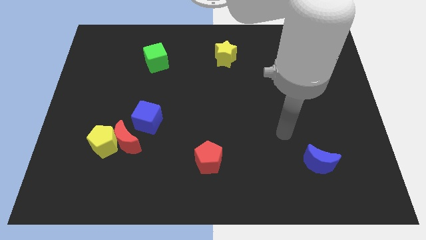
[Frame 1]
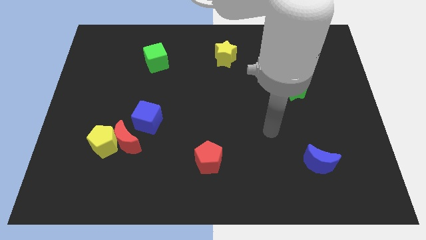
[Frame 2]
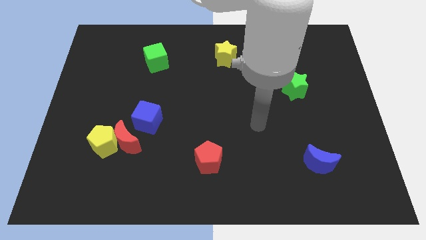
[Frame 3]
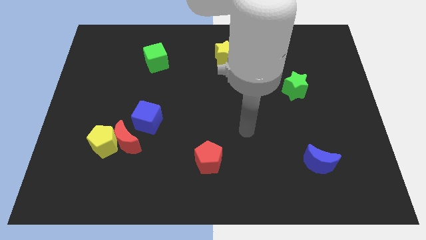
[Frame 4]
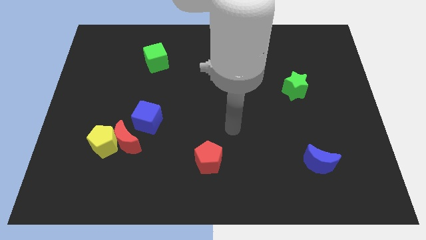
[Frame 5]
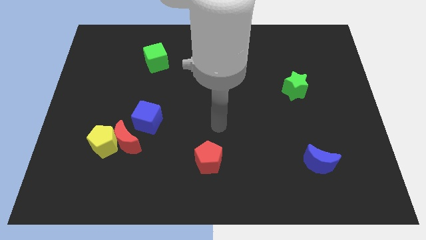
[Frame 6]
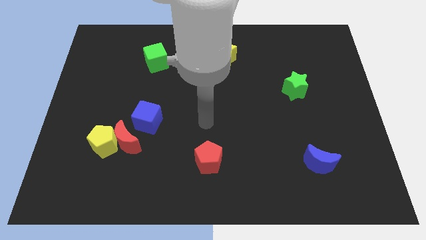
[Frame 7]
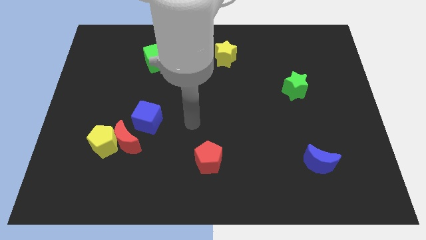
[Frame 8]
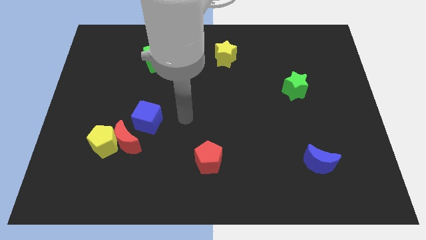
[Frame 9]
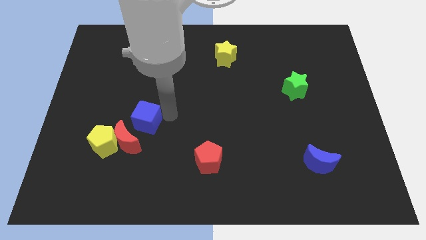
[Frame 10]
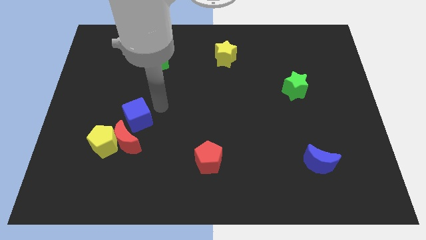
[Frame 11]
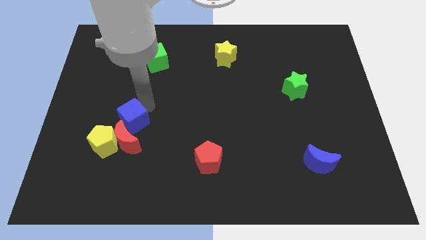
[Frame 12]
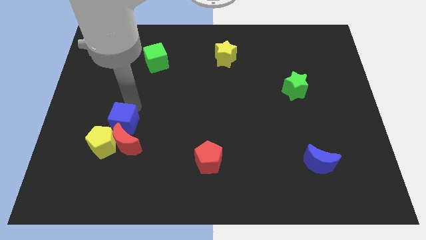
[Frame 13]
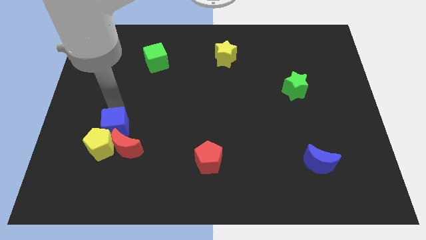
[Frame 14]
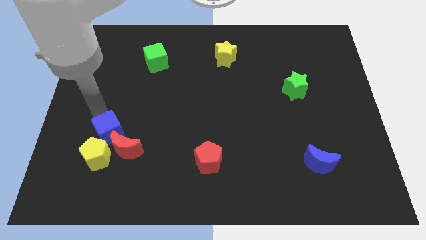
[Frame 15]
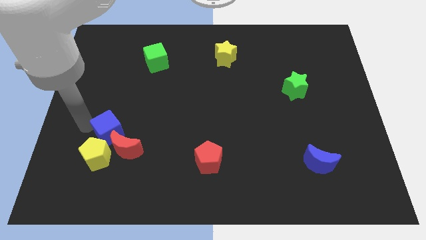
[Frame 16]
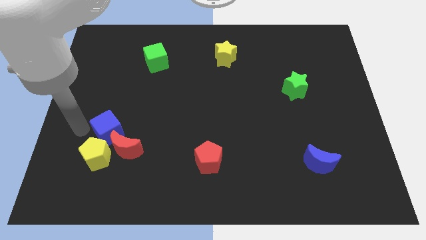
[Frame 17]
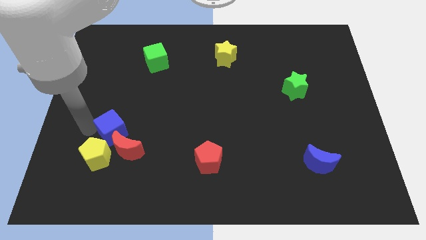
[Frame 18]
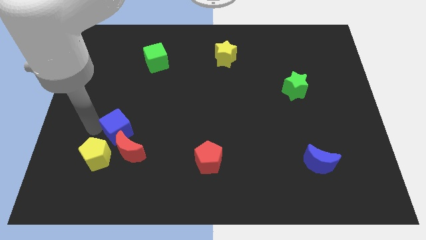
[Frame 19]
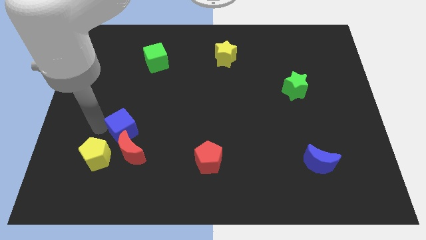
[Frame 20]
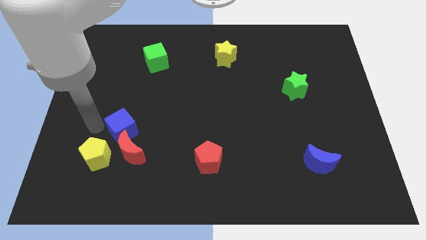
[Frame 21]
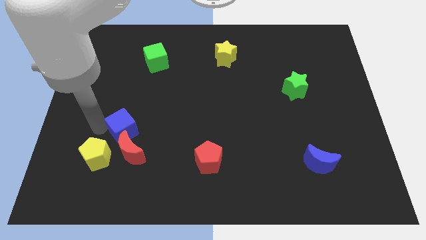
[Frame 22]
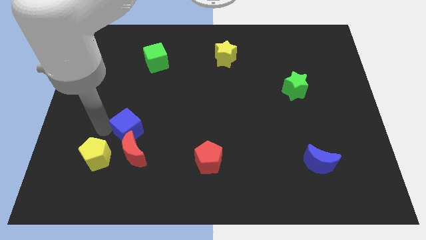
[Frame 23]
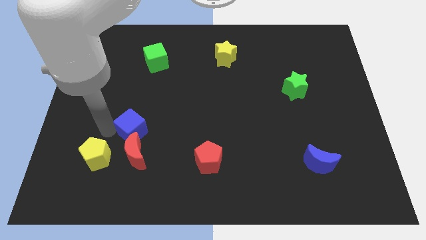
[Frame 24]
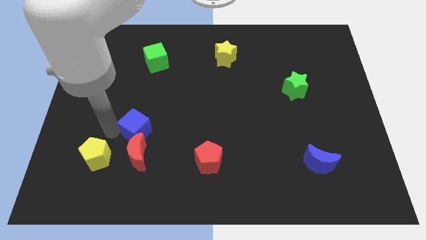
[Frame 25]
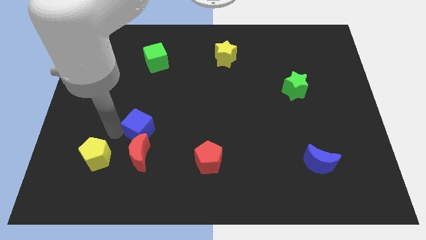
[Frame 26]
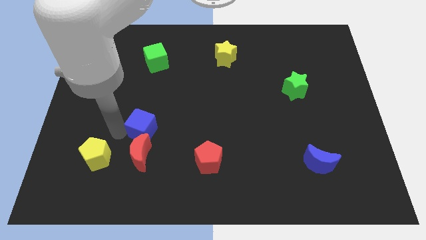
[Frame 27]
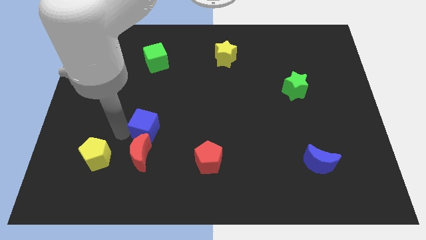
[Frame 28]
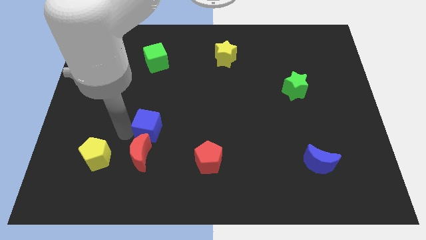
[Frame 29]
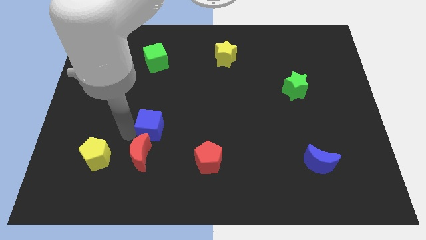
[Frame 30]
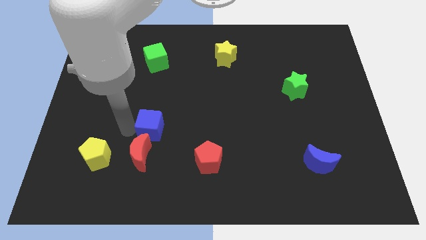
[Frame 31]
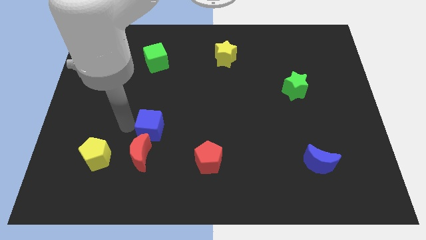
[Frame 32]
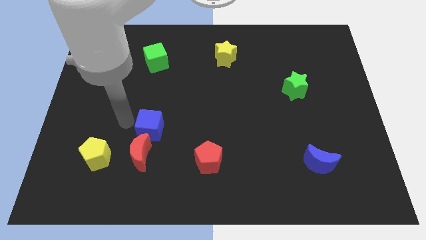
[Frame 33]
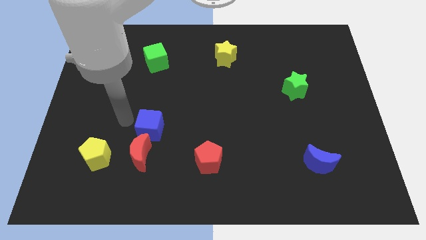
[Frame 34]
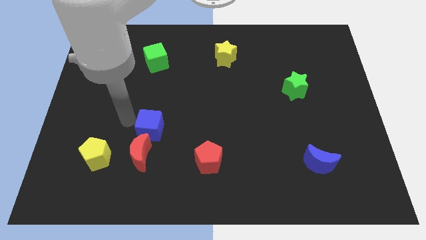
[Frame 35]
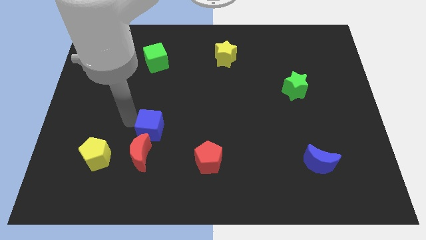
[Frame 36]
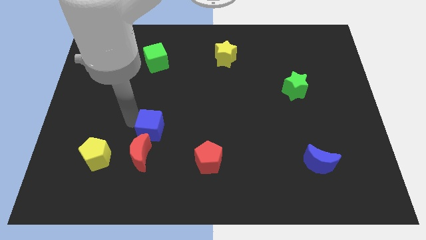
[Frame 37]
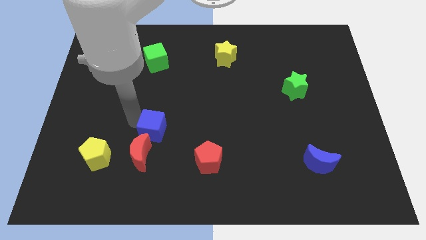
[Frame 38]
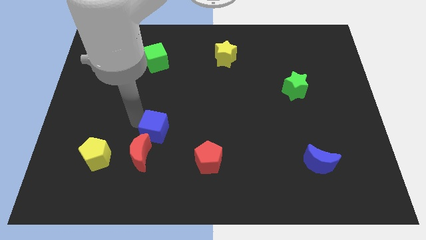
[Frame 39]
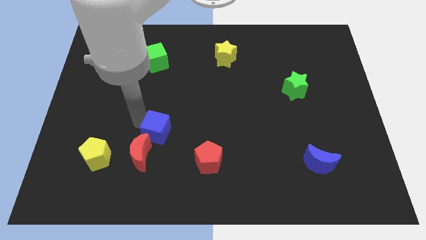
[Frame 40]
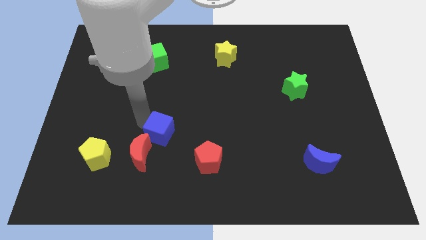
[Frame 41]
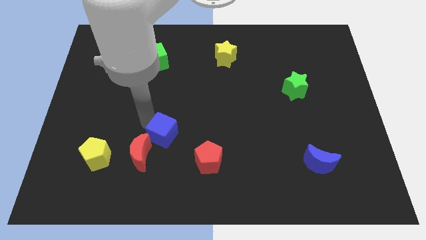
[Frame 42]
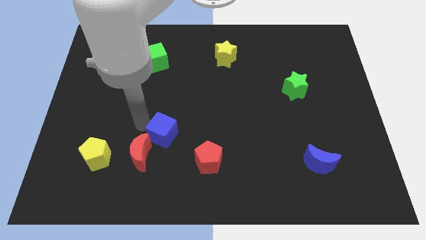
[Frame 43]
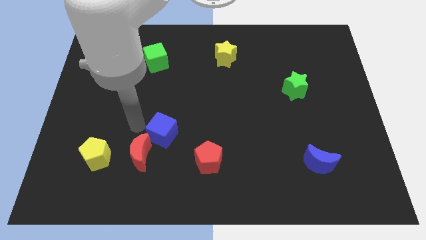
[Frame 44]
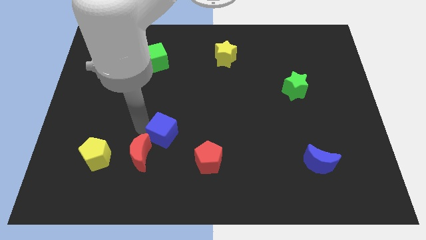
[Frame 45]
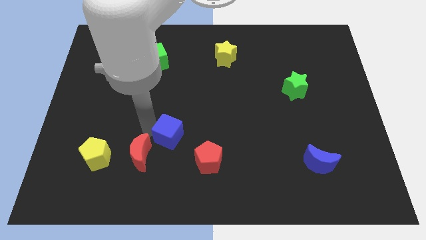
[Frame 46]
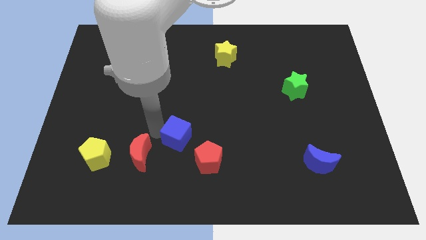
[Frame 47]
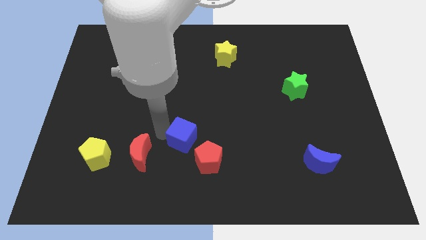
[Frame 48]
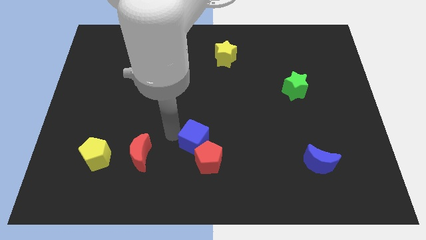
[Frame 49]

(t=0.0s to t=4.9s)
push the blue cube towards the red pentagon

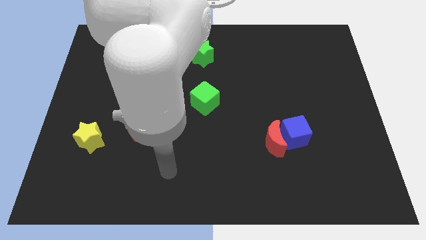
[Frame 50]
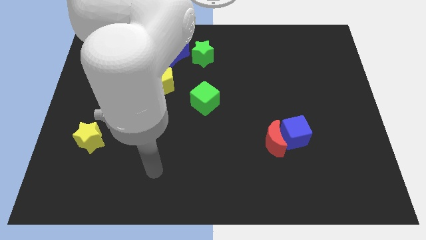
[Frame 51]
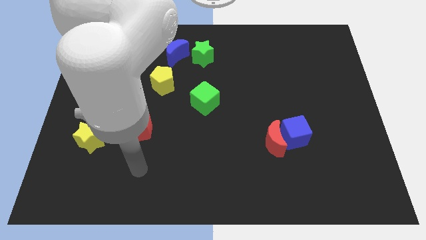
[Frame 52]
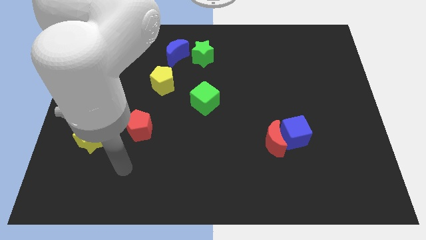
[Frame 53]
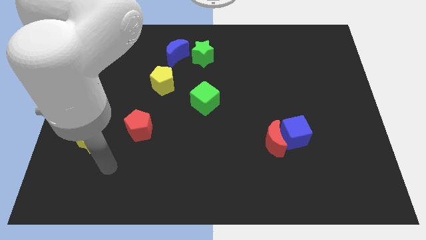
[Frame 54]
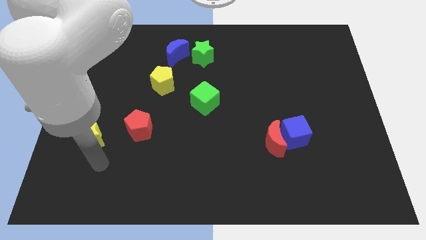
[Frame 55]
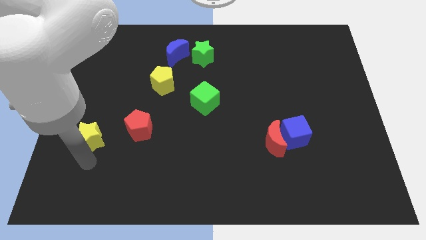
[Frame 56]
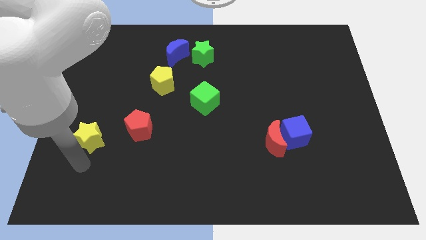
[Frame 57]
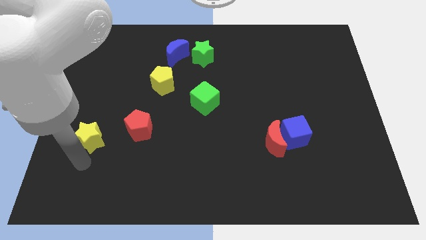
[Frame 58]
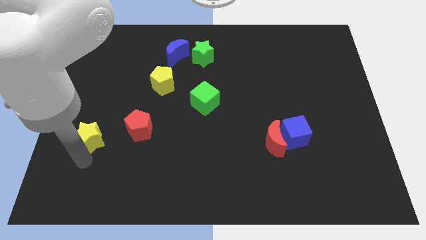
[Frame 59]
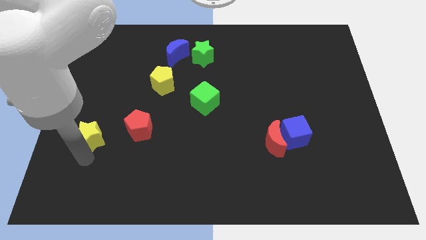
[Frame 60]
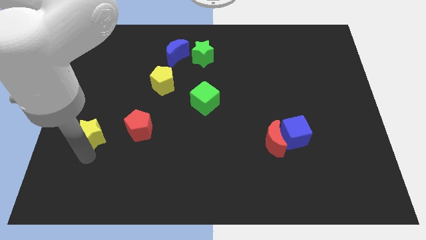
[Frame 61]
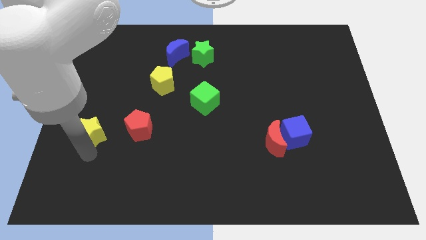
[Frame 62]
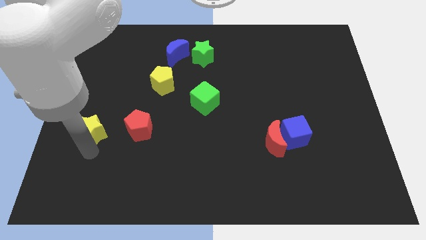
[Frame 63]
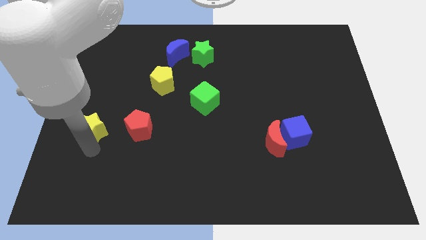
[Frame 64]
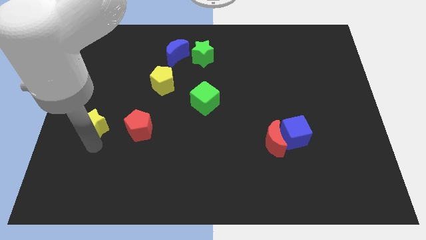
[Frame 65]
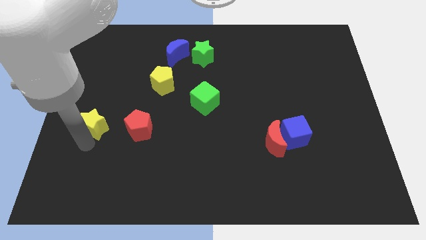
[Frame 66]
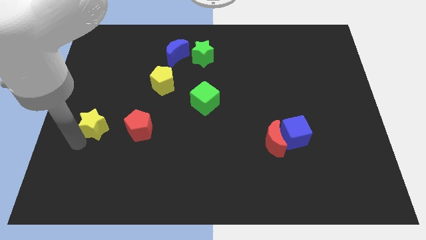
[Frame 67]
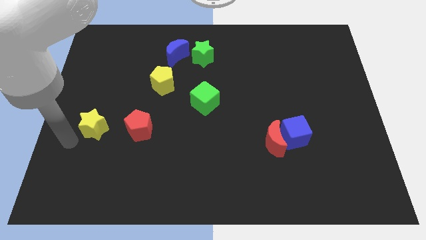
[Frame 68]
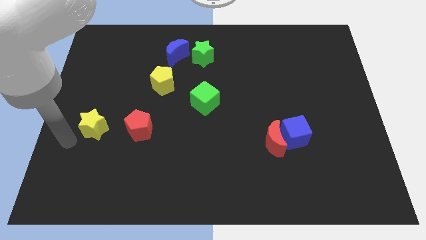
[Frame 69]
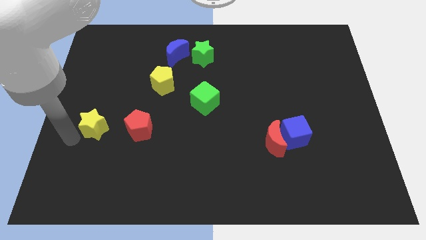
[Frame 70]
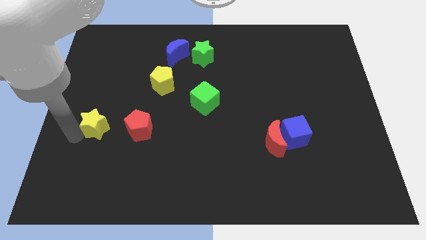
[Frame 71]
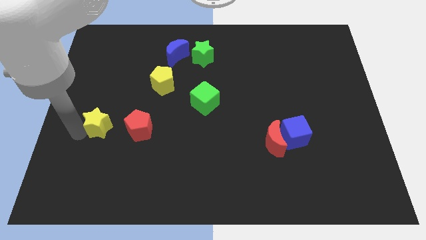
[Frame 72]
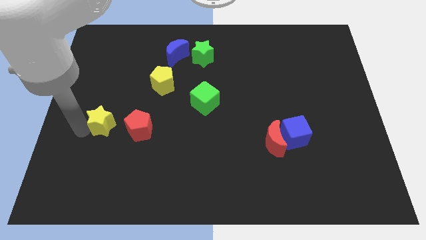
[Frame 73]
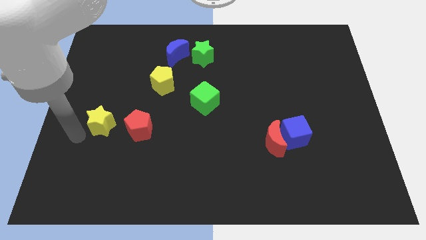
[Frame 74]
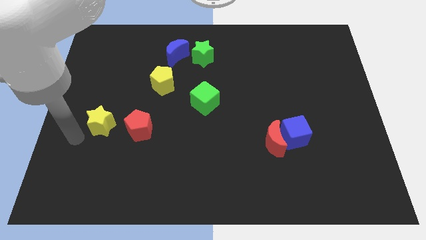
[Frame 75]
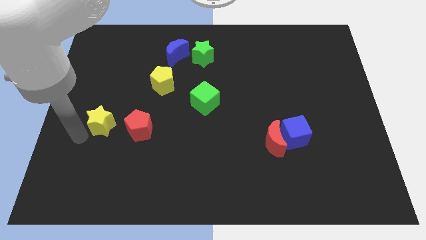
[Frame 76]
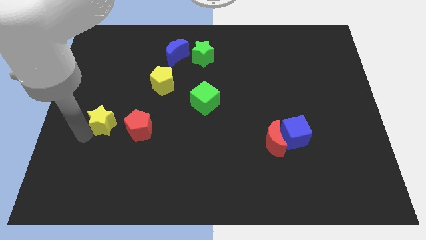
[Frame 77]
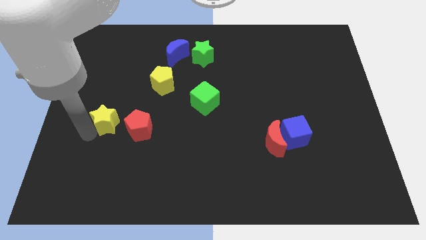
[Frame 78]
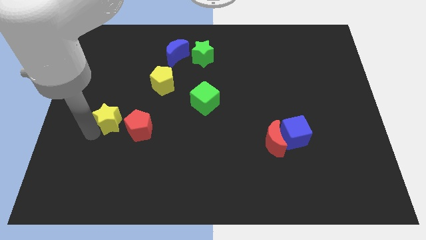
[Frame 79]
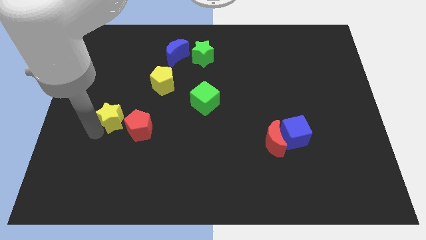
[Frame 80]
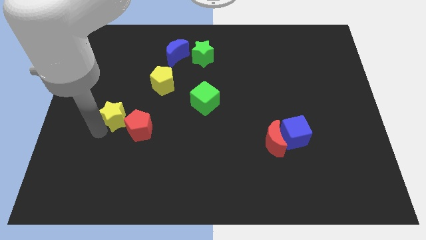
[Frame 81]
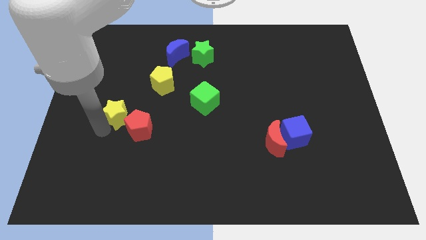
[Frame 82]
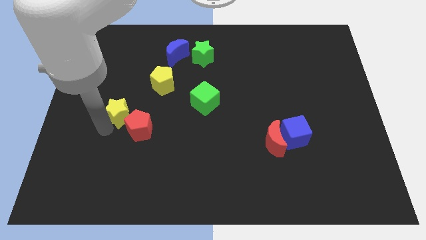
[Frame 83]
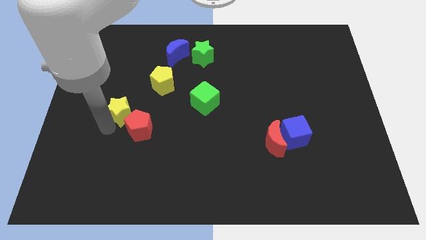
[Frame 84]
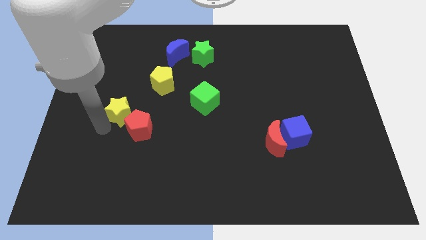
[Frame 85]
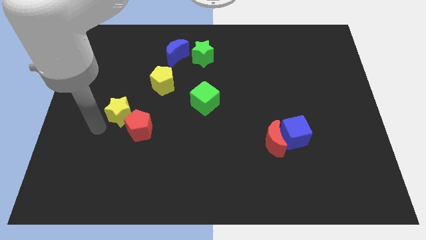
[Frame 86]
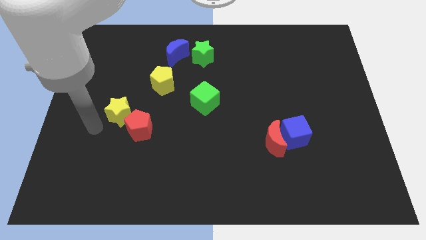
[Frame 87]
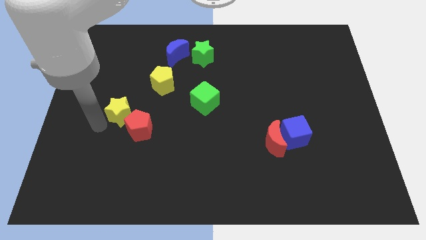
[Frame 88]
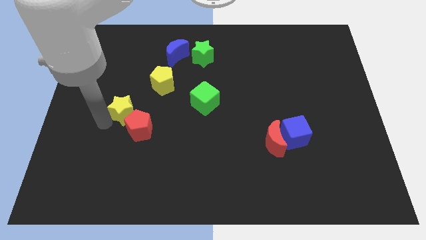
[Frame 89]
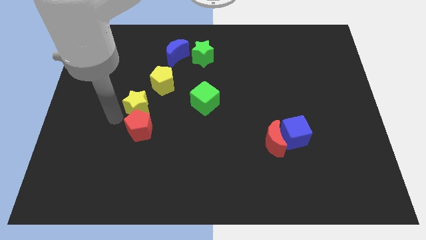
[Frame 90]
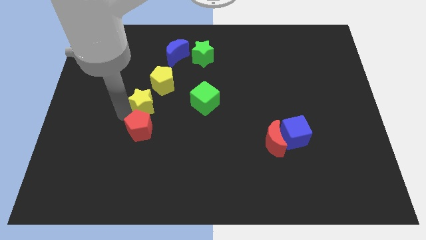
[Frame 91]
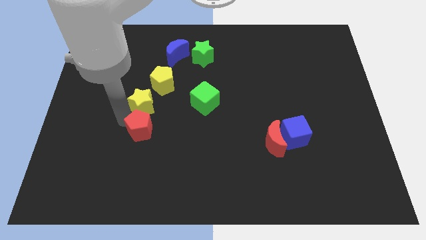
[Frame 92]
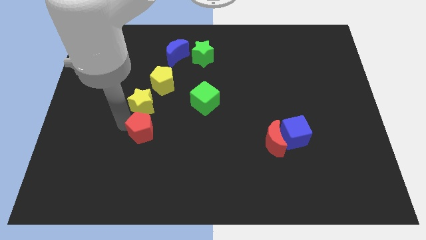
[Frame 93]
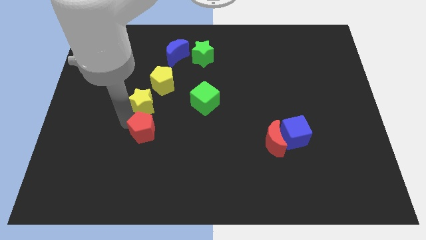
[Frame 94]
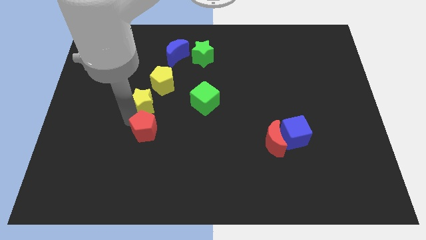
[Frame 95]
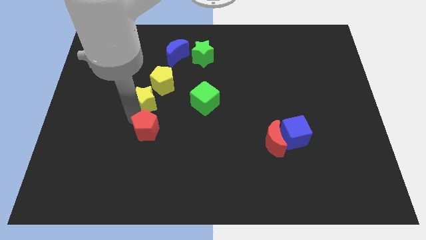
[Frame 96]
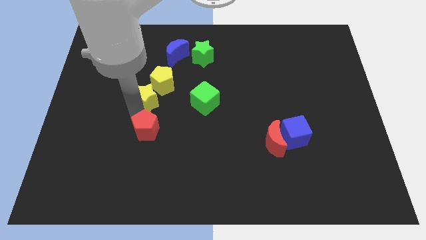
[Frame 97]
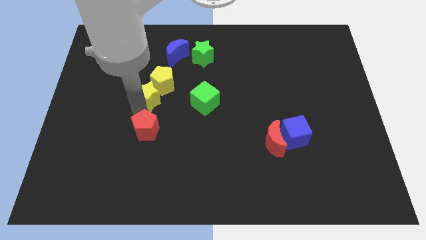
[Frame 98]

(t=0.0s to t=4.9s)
slide the yellow star next to the yellow pentagon
